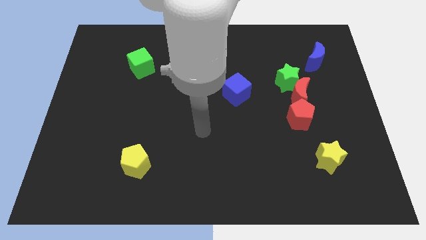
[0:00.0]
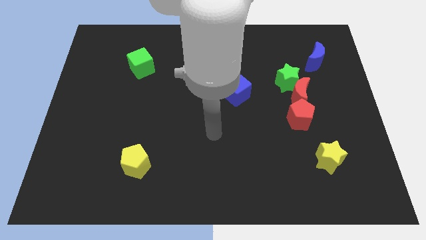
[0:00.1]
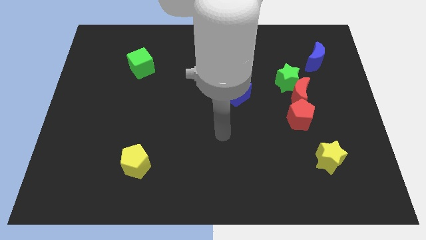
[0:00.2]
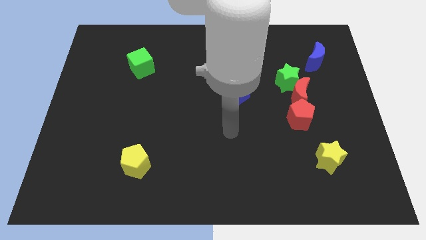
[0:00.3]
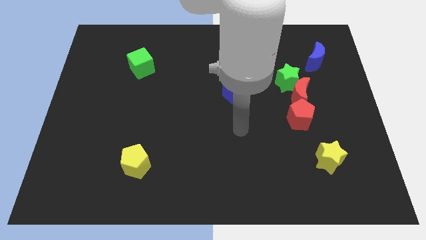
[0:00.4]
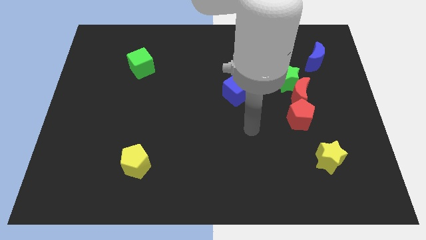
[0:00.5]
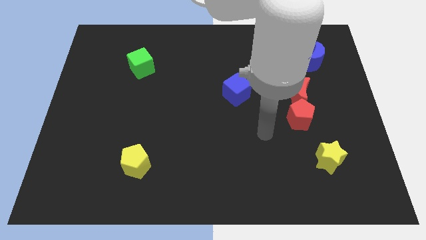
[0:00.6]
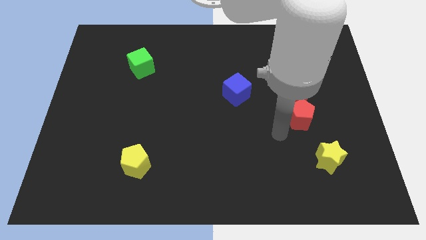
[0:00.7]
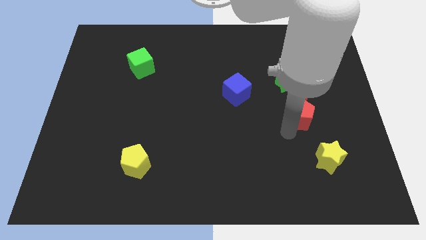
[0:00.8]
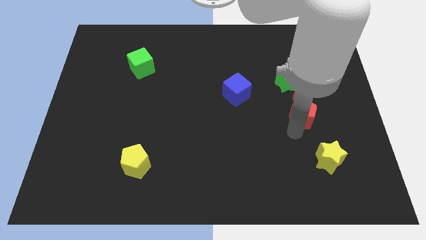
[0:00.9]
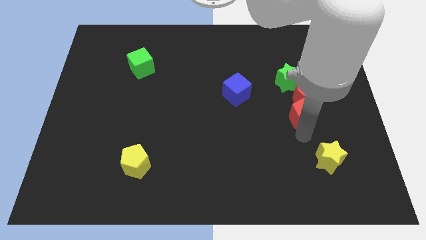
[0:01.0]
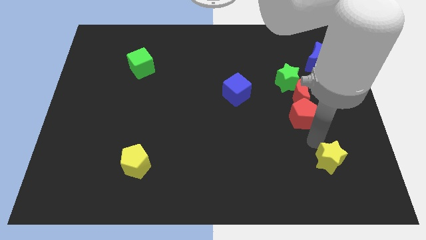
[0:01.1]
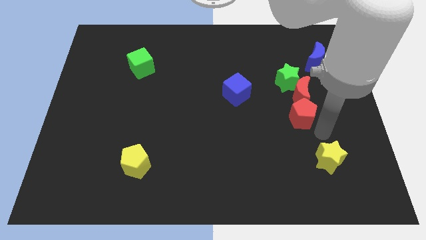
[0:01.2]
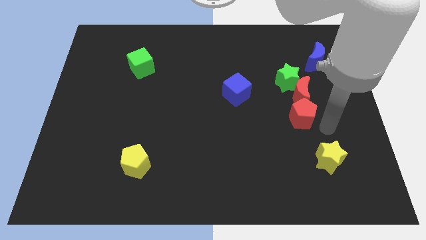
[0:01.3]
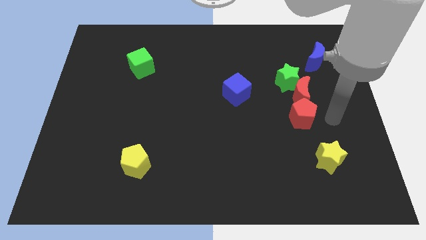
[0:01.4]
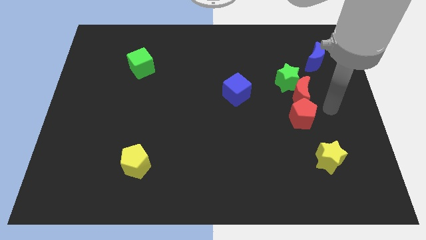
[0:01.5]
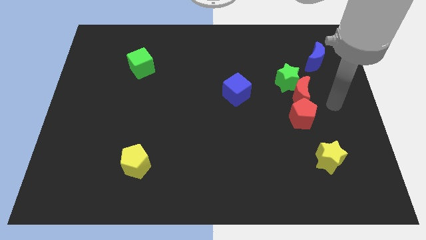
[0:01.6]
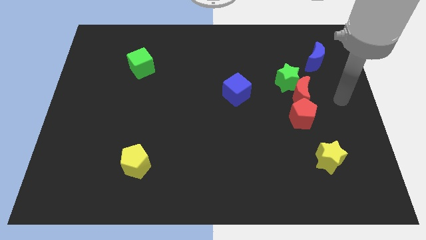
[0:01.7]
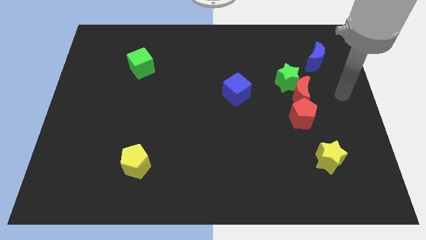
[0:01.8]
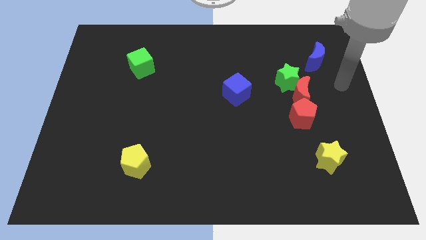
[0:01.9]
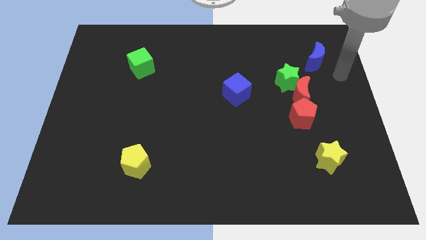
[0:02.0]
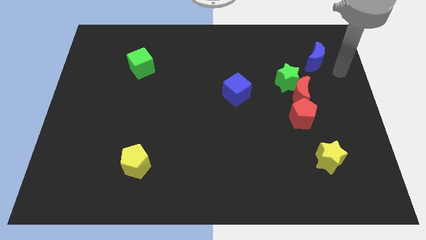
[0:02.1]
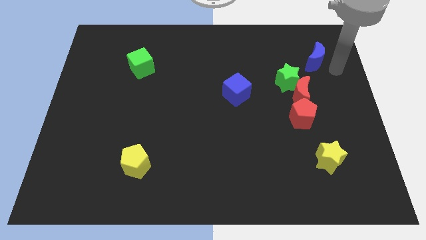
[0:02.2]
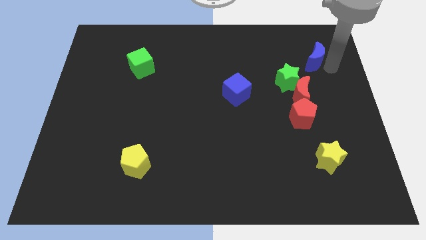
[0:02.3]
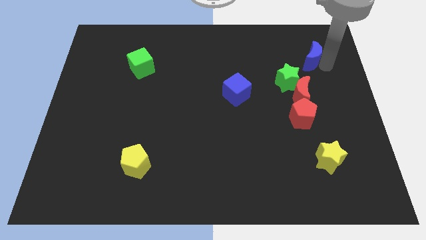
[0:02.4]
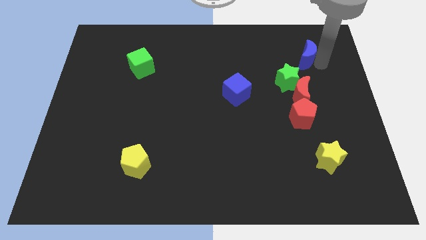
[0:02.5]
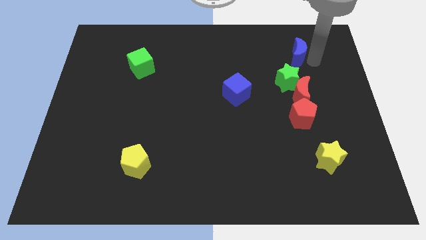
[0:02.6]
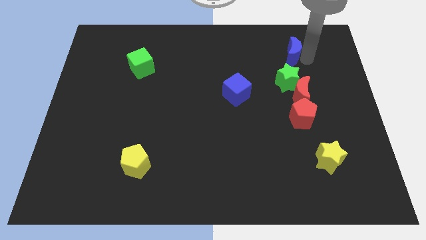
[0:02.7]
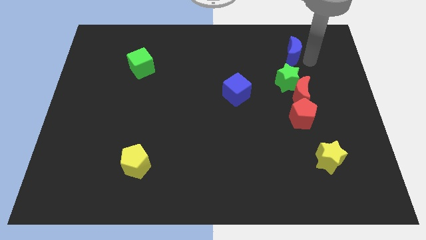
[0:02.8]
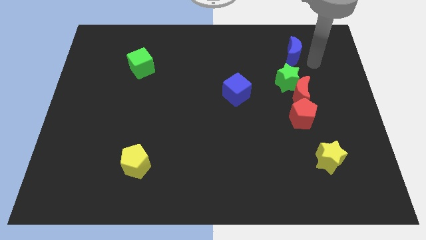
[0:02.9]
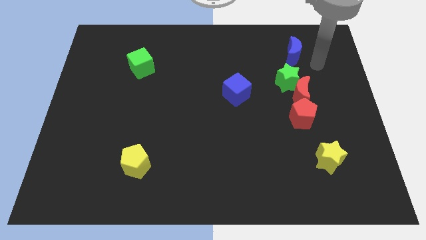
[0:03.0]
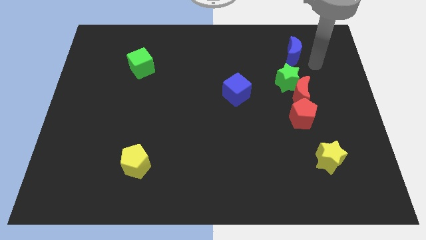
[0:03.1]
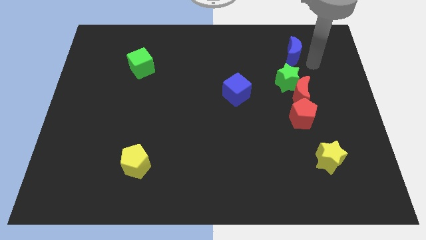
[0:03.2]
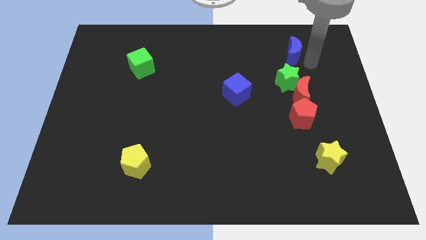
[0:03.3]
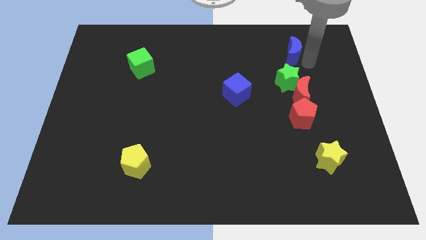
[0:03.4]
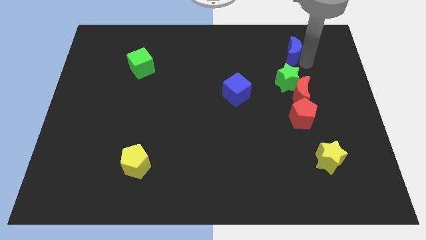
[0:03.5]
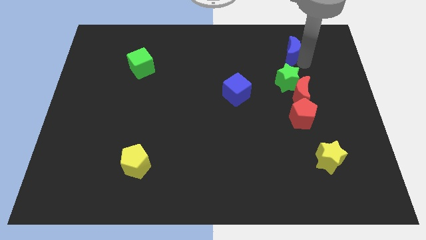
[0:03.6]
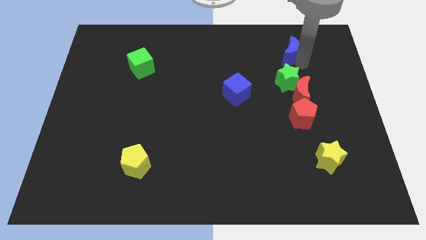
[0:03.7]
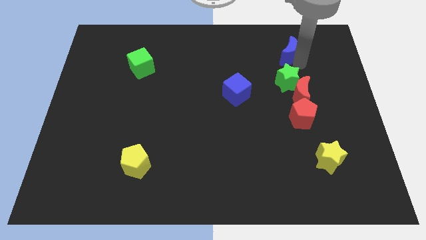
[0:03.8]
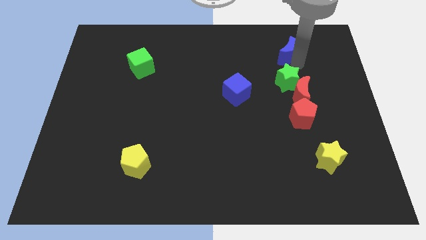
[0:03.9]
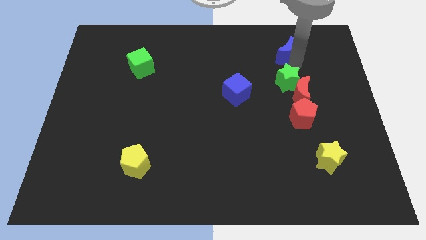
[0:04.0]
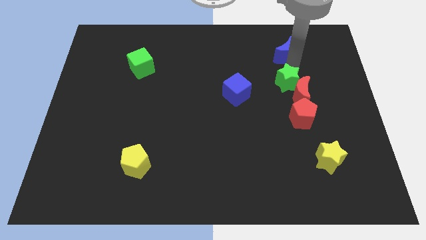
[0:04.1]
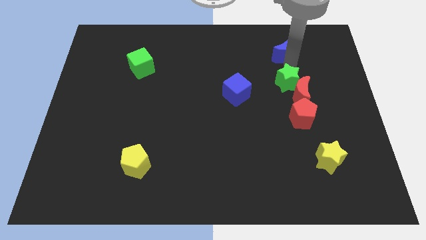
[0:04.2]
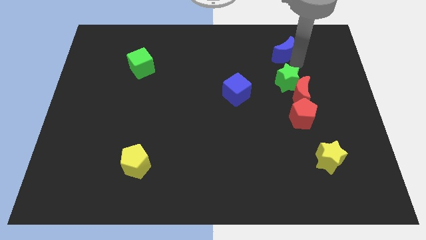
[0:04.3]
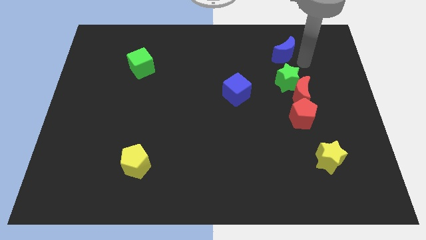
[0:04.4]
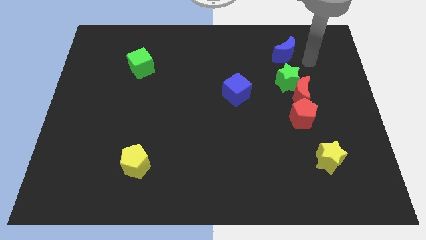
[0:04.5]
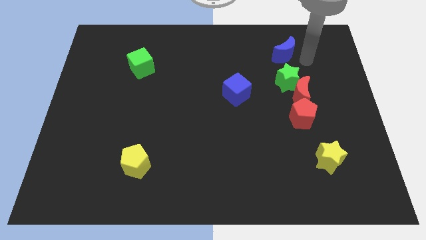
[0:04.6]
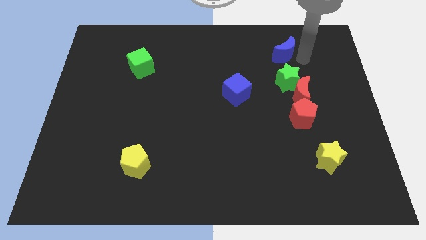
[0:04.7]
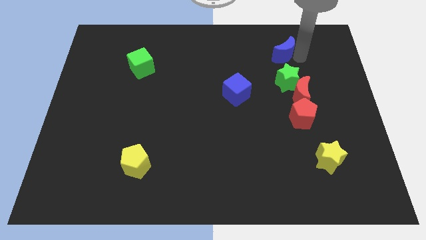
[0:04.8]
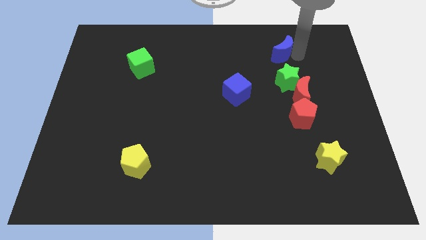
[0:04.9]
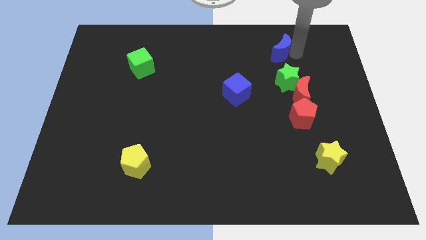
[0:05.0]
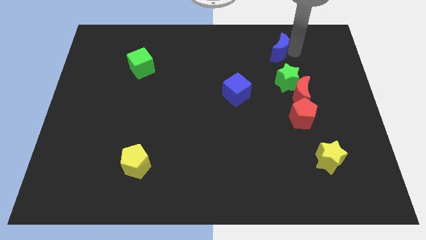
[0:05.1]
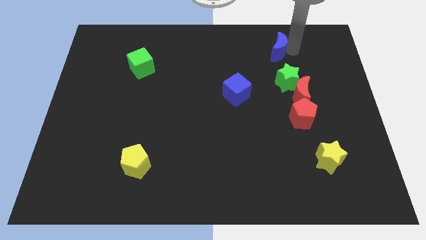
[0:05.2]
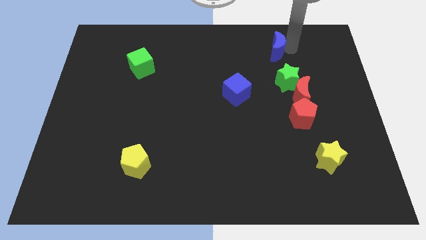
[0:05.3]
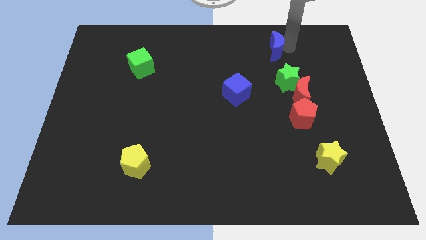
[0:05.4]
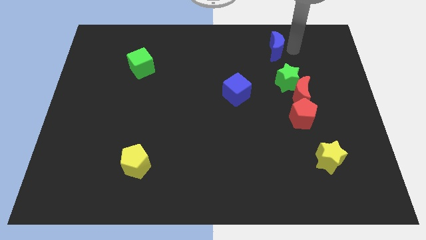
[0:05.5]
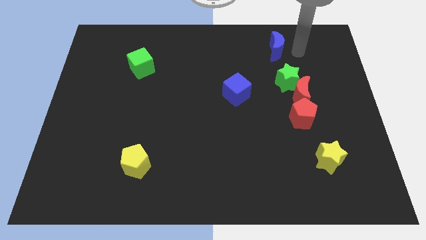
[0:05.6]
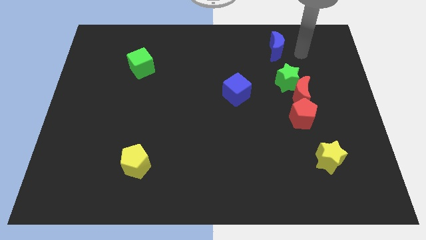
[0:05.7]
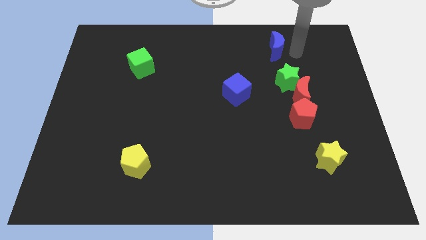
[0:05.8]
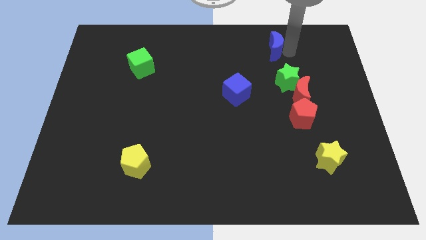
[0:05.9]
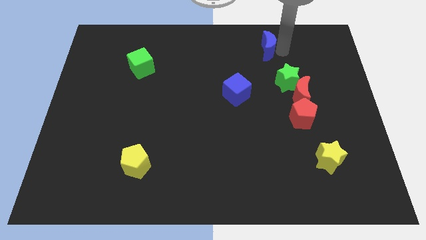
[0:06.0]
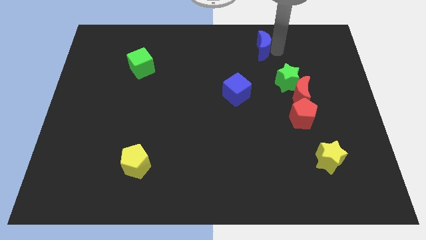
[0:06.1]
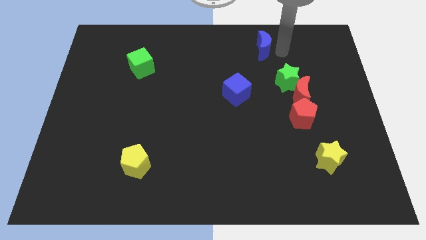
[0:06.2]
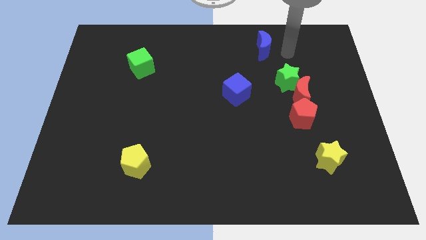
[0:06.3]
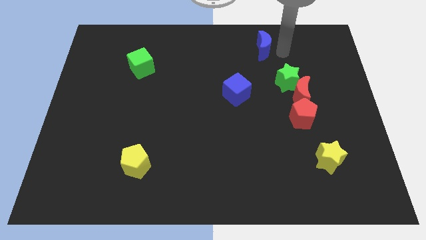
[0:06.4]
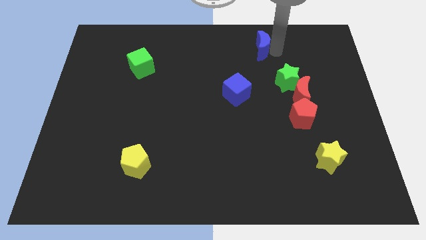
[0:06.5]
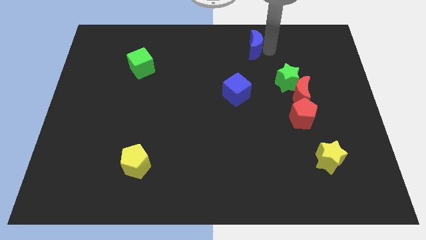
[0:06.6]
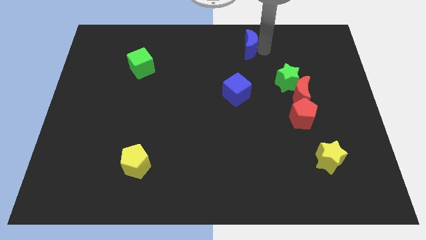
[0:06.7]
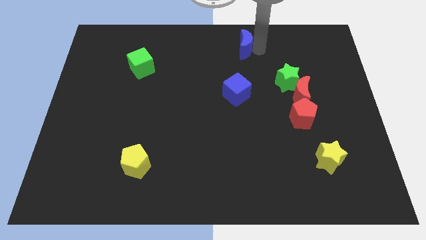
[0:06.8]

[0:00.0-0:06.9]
put the blue moon to the top
